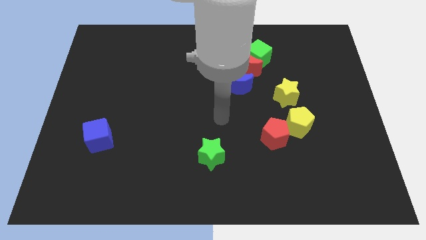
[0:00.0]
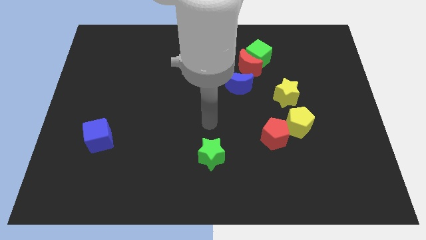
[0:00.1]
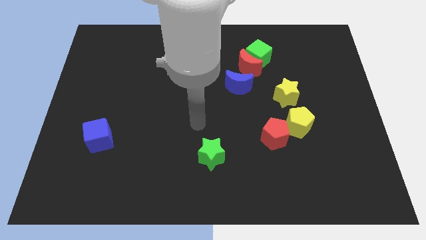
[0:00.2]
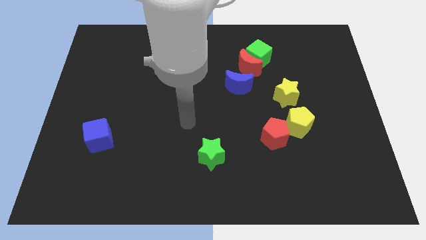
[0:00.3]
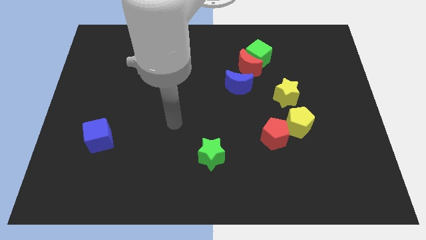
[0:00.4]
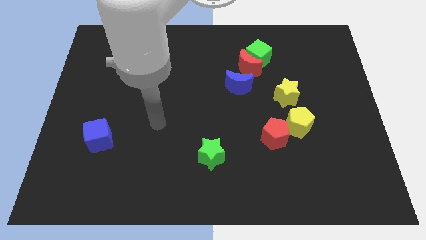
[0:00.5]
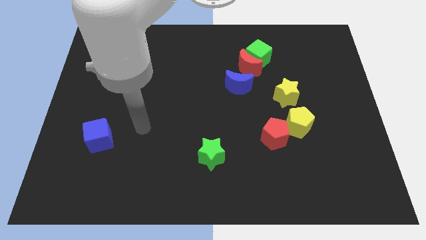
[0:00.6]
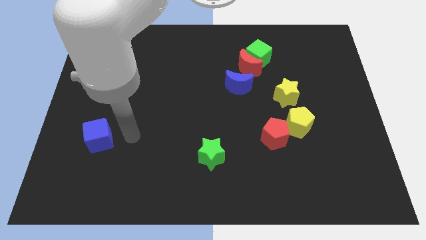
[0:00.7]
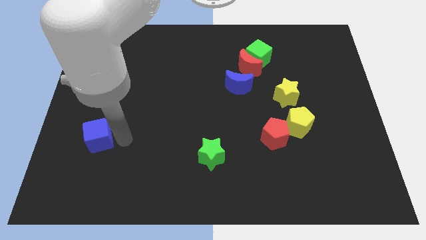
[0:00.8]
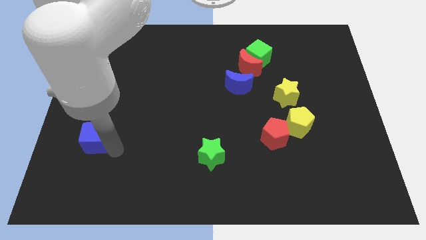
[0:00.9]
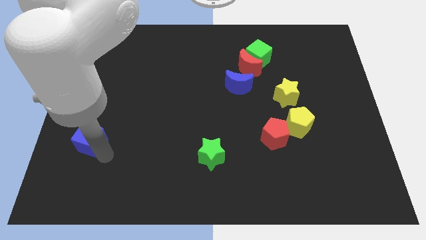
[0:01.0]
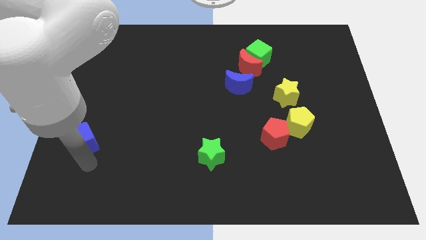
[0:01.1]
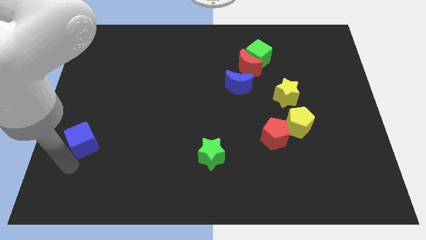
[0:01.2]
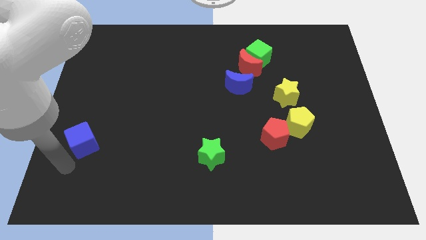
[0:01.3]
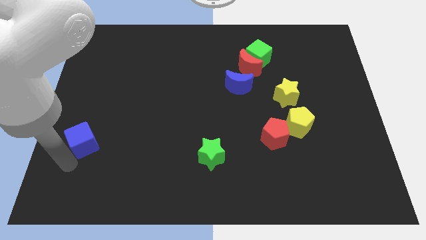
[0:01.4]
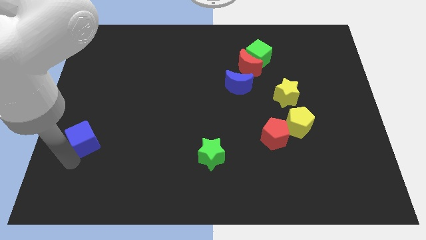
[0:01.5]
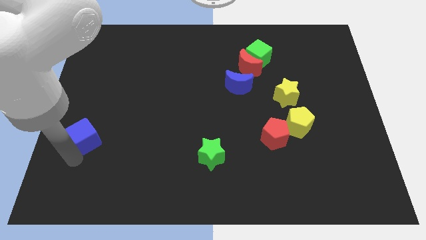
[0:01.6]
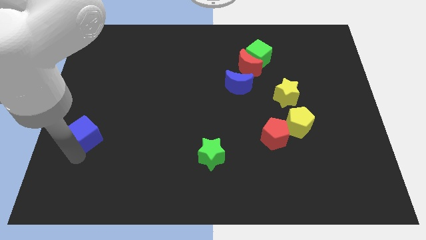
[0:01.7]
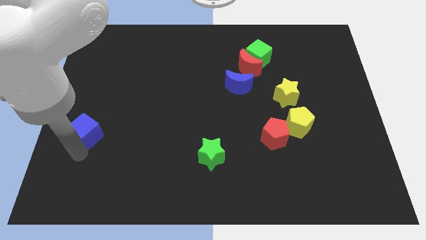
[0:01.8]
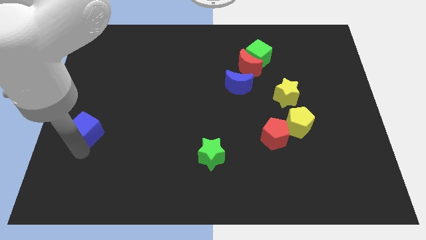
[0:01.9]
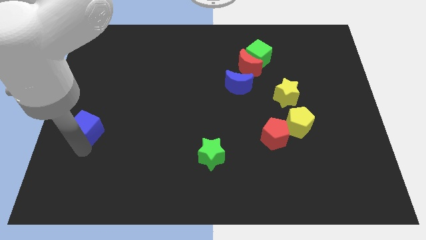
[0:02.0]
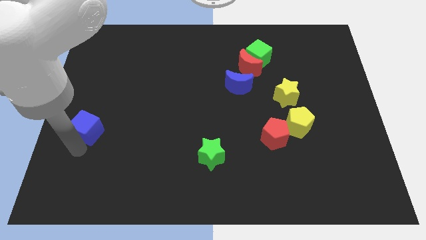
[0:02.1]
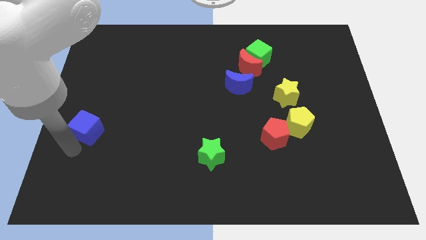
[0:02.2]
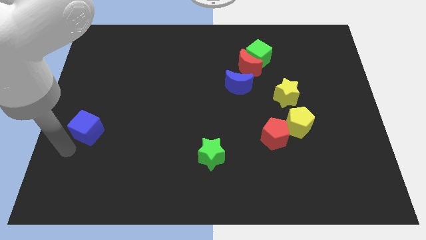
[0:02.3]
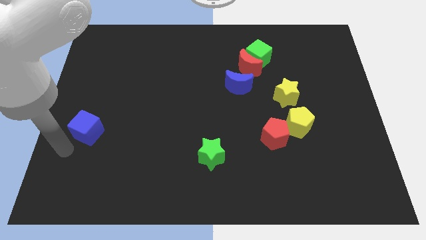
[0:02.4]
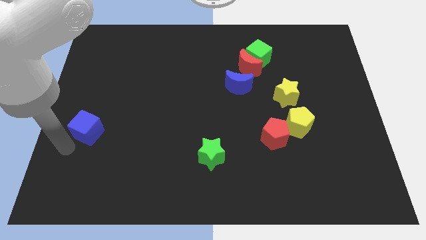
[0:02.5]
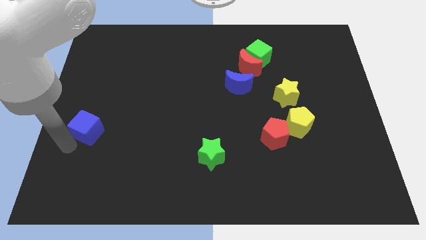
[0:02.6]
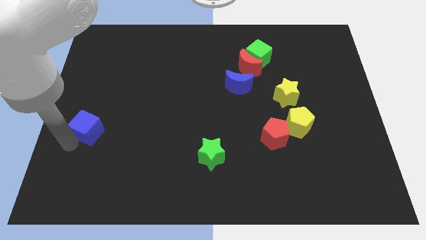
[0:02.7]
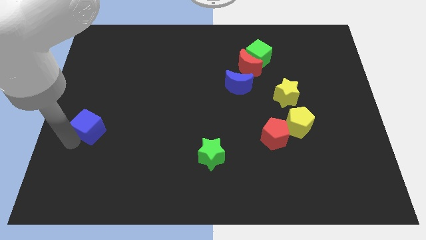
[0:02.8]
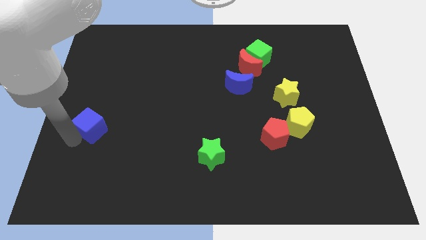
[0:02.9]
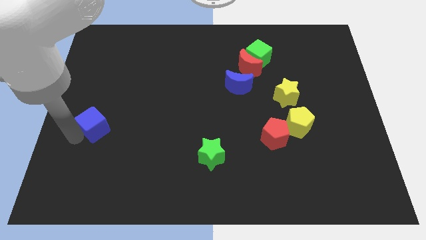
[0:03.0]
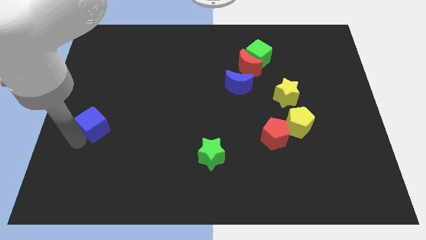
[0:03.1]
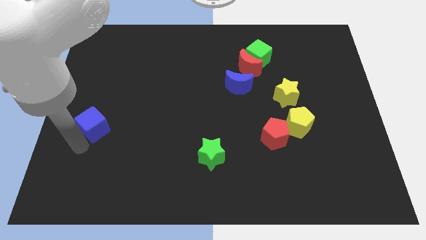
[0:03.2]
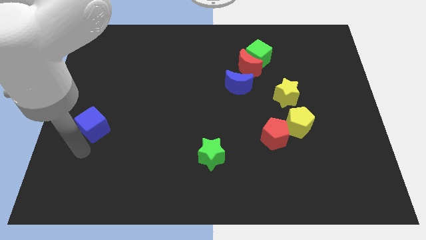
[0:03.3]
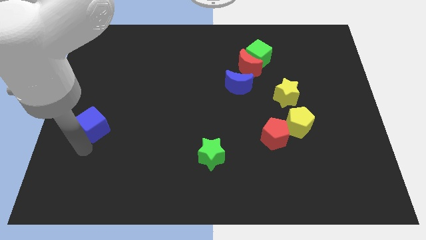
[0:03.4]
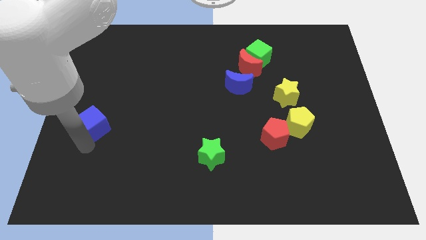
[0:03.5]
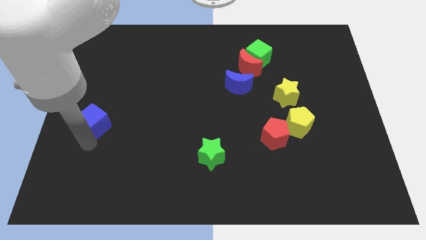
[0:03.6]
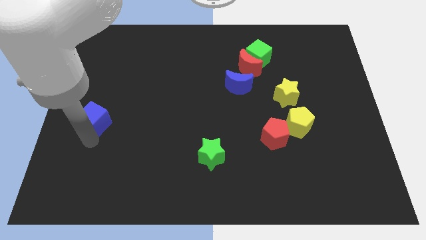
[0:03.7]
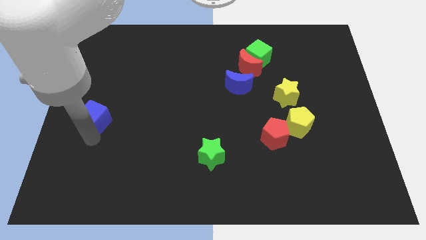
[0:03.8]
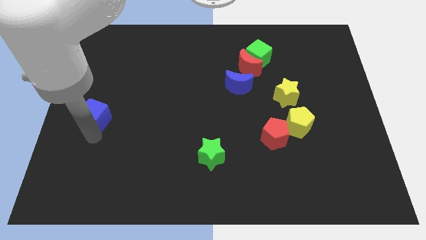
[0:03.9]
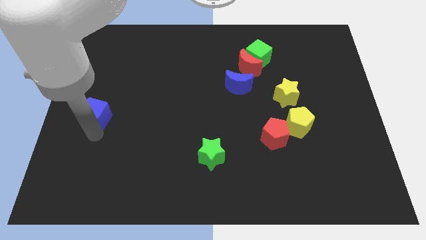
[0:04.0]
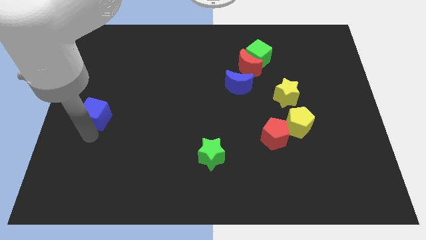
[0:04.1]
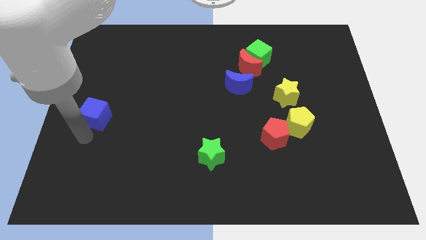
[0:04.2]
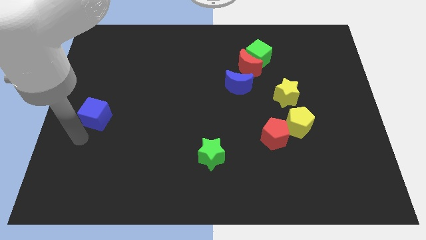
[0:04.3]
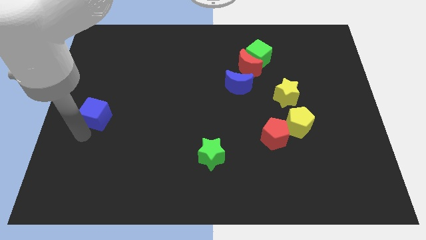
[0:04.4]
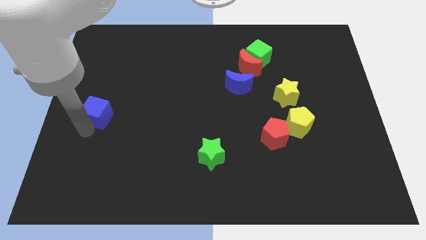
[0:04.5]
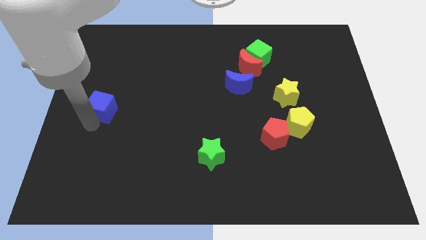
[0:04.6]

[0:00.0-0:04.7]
move the blue cube a little bit upwards

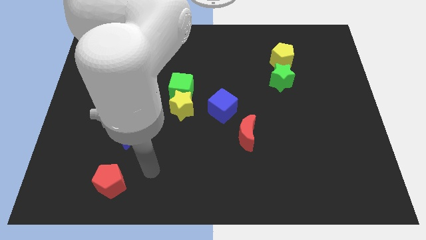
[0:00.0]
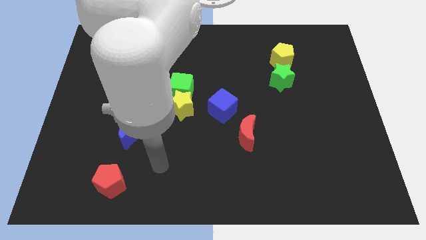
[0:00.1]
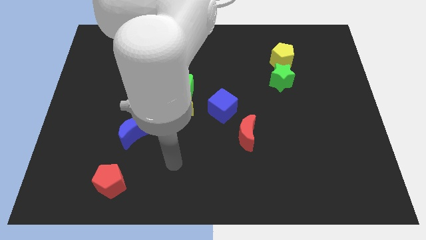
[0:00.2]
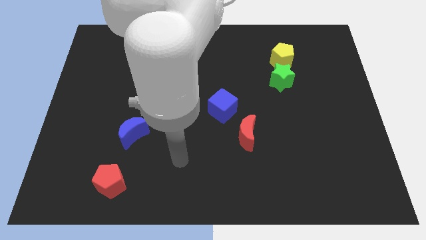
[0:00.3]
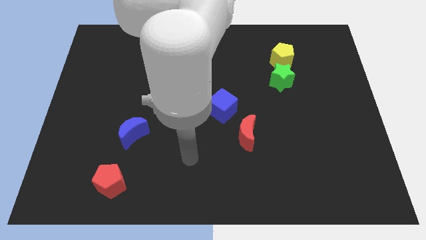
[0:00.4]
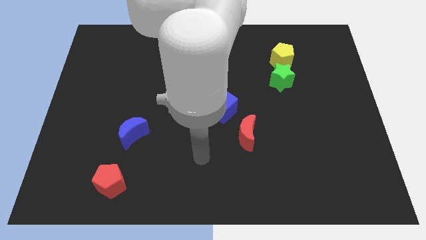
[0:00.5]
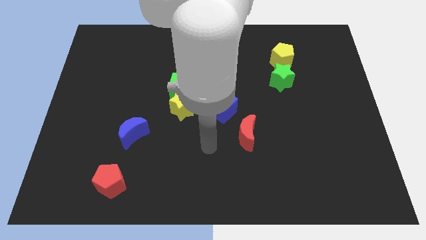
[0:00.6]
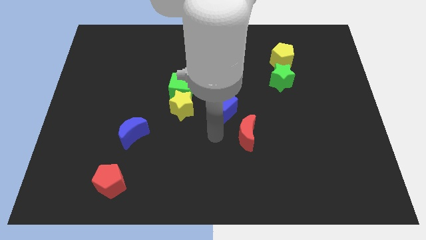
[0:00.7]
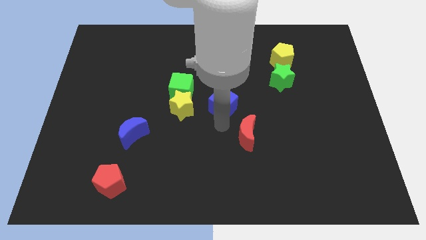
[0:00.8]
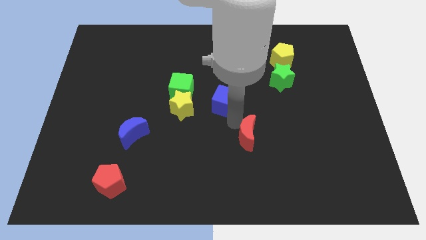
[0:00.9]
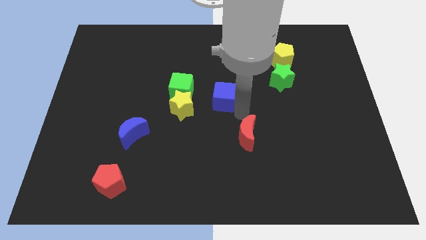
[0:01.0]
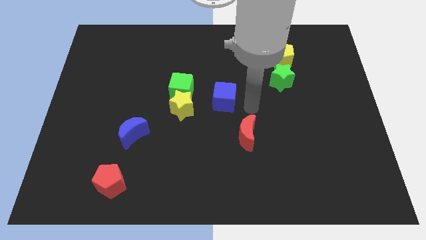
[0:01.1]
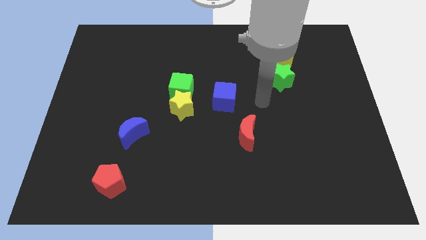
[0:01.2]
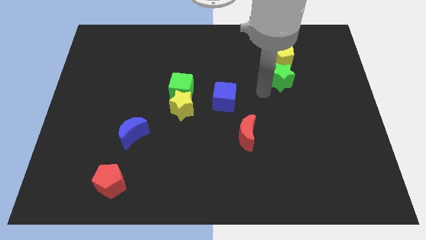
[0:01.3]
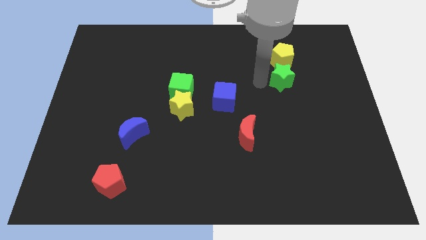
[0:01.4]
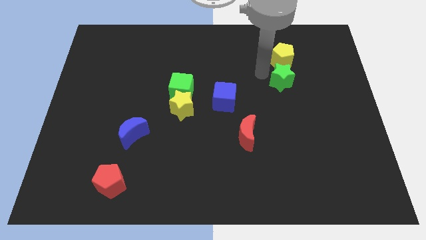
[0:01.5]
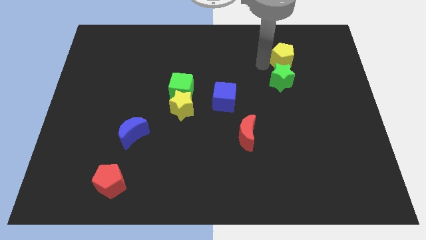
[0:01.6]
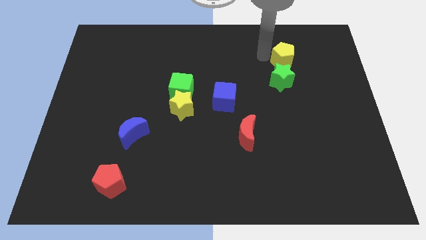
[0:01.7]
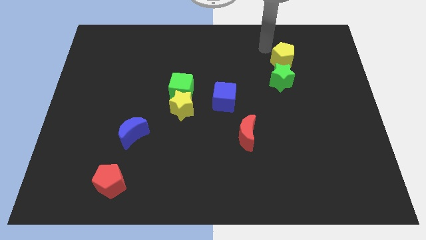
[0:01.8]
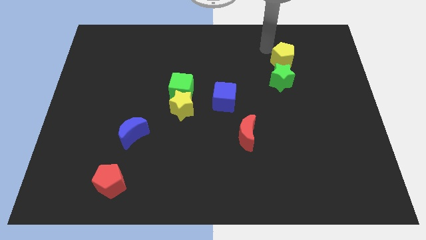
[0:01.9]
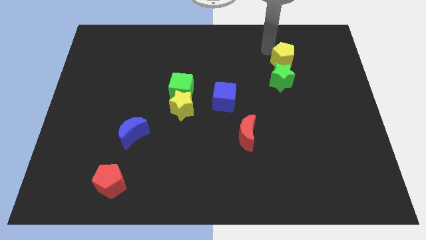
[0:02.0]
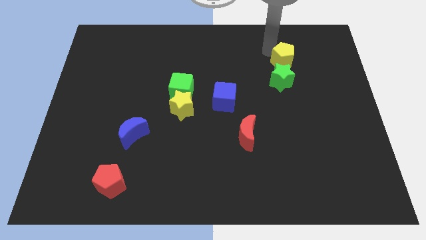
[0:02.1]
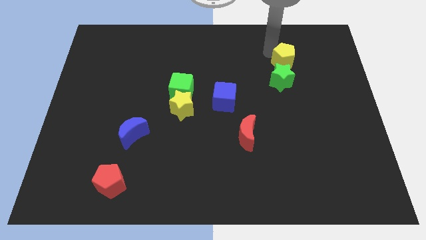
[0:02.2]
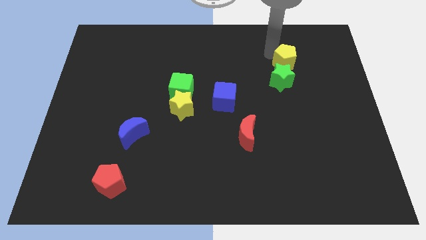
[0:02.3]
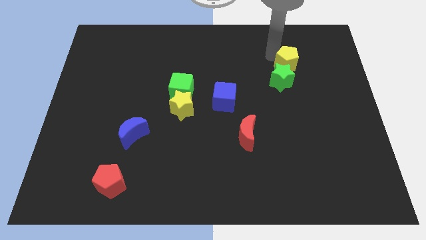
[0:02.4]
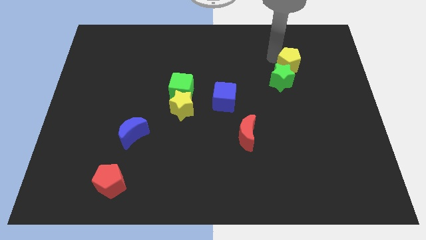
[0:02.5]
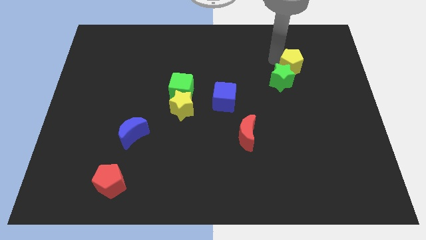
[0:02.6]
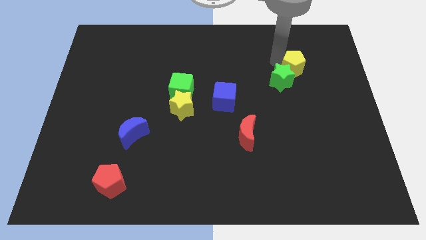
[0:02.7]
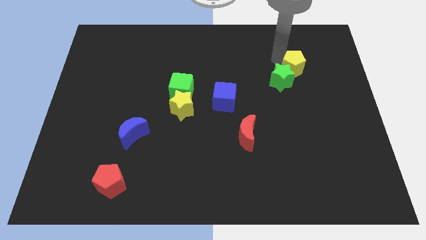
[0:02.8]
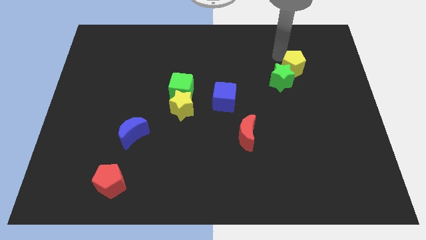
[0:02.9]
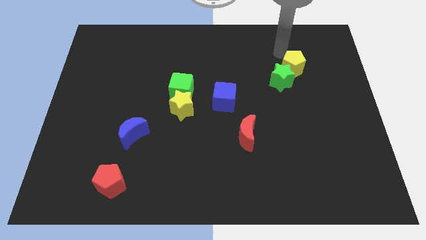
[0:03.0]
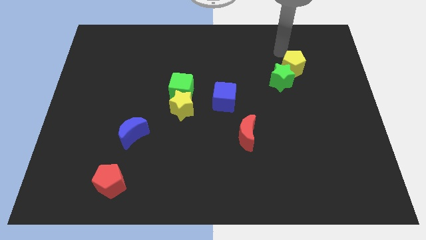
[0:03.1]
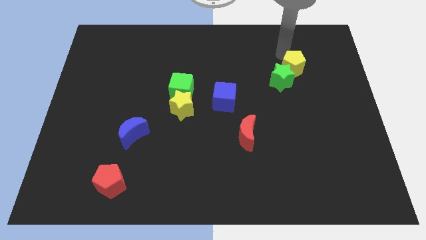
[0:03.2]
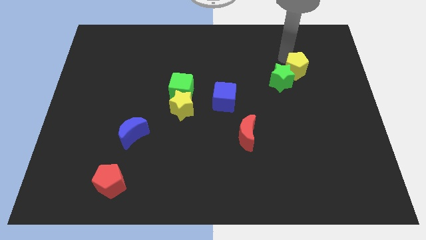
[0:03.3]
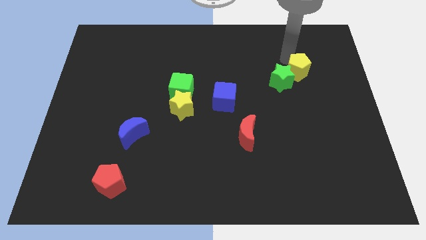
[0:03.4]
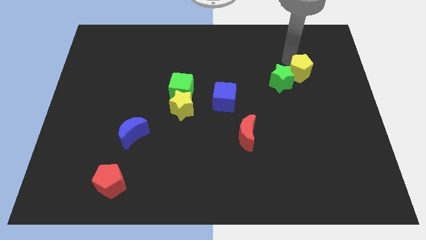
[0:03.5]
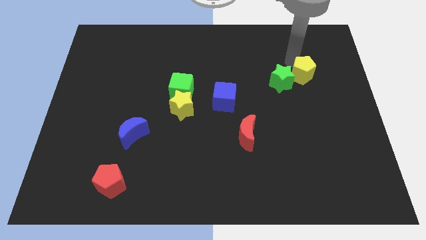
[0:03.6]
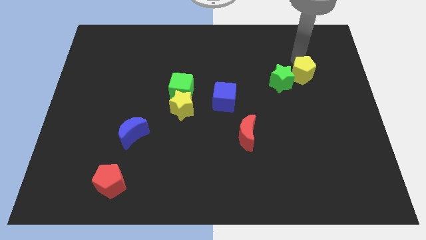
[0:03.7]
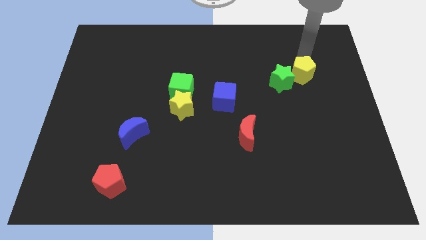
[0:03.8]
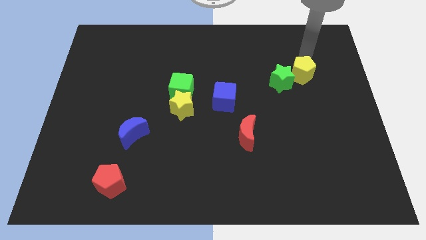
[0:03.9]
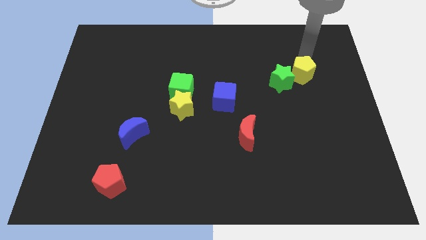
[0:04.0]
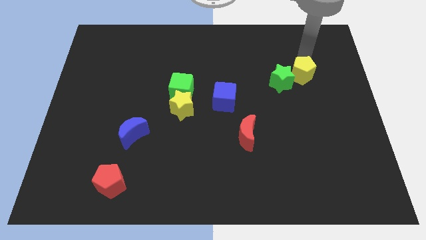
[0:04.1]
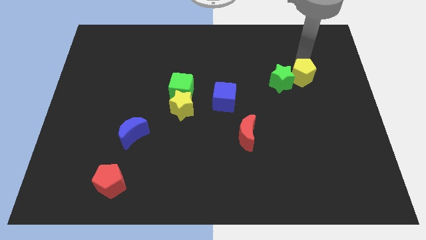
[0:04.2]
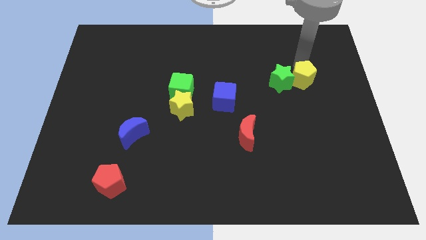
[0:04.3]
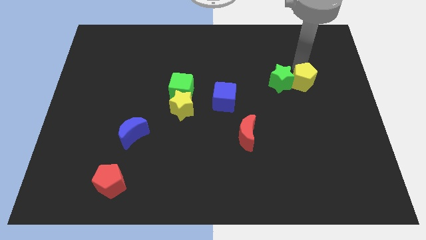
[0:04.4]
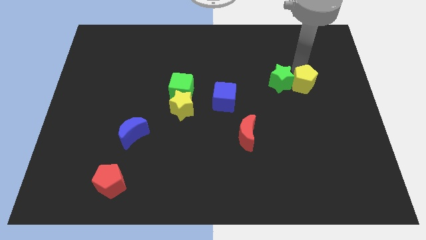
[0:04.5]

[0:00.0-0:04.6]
push the yellow pentagon slightly down
